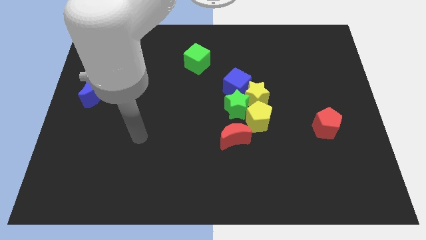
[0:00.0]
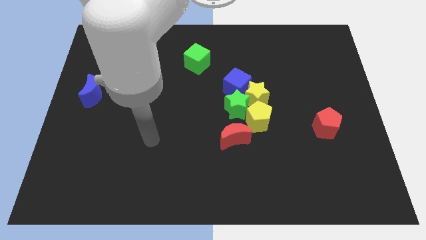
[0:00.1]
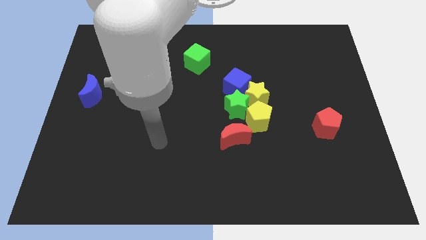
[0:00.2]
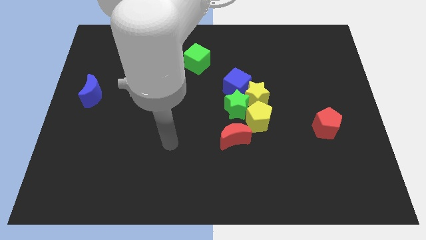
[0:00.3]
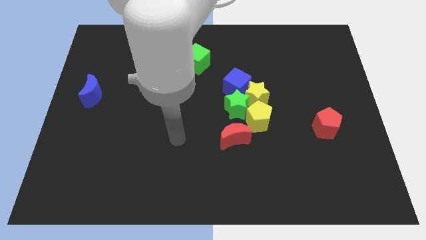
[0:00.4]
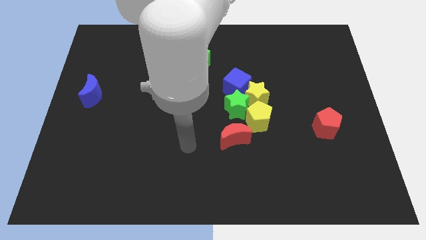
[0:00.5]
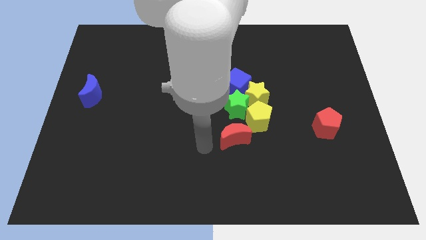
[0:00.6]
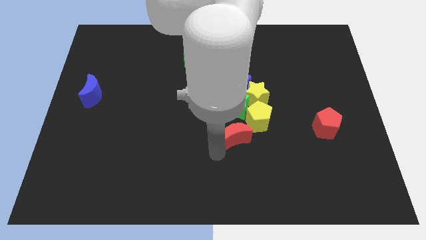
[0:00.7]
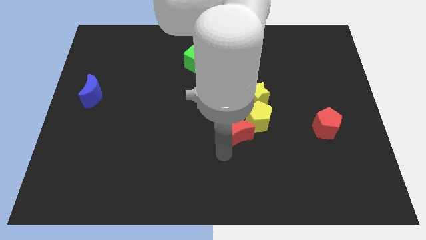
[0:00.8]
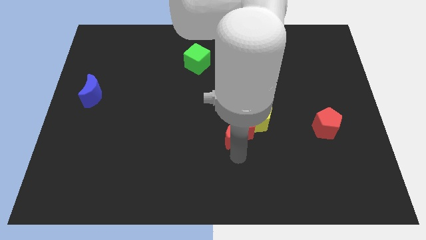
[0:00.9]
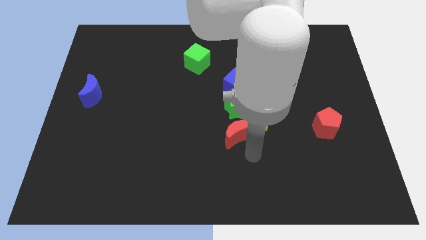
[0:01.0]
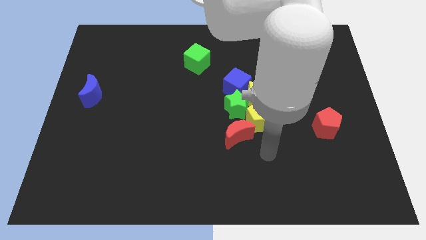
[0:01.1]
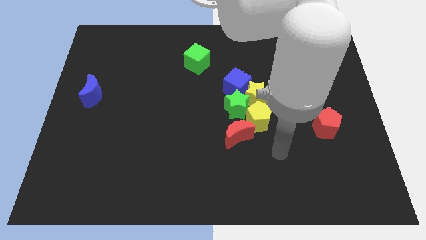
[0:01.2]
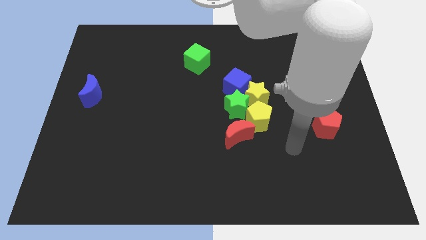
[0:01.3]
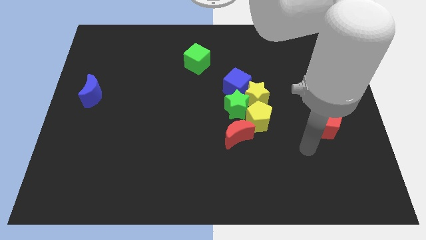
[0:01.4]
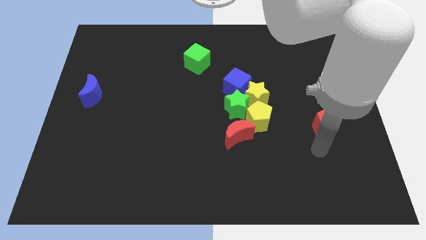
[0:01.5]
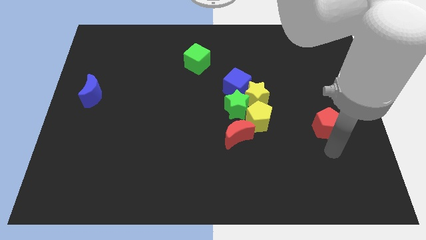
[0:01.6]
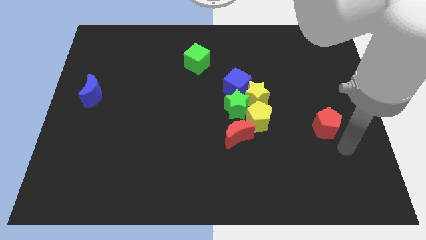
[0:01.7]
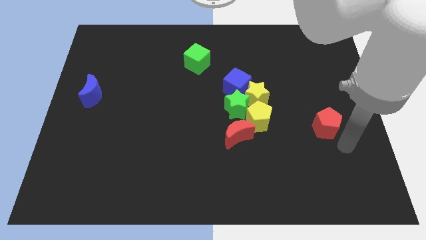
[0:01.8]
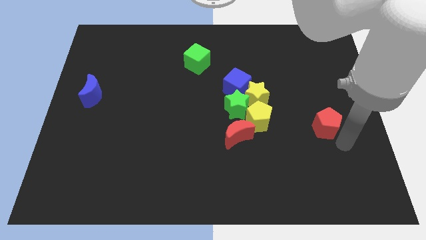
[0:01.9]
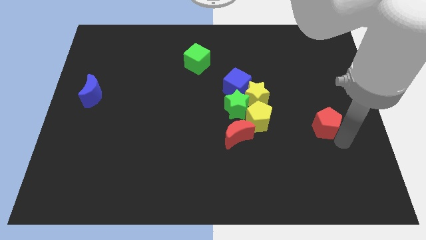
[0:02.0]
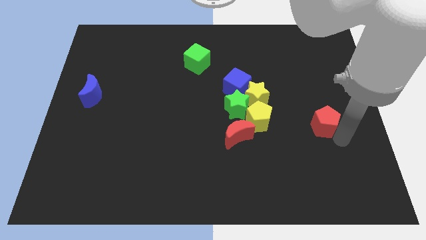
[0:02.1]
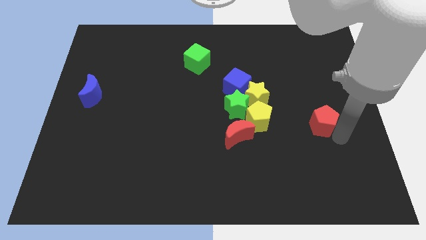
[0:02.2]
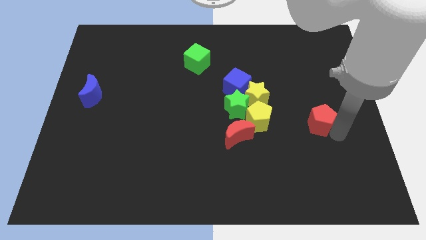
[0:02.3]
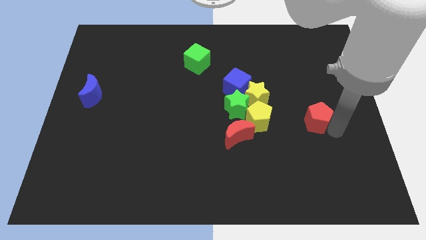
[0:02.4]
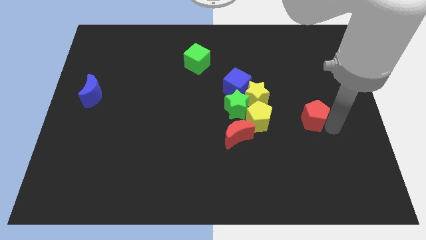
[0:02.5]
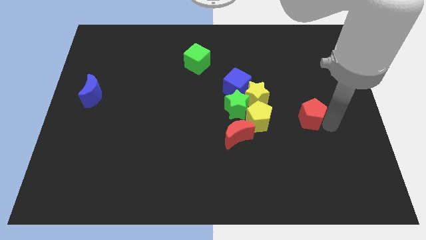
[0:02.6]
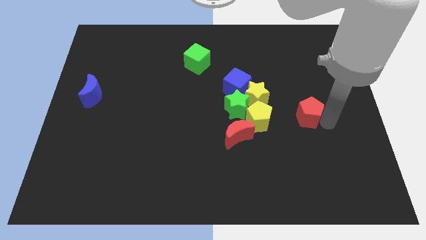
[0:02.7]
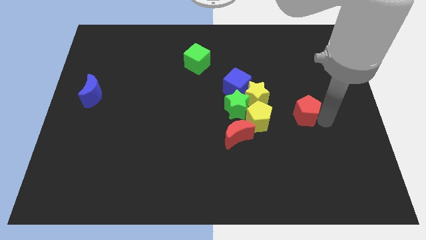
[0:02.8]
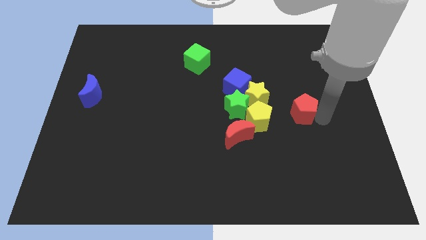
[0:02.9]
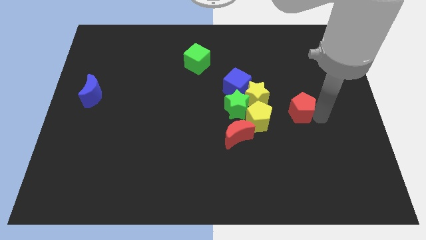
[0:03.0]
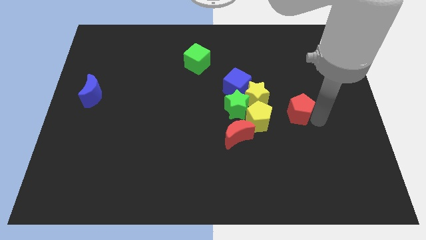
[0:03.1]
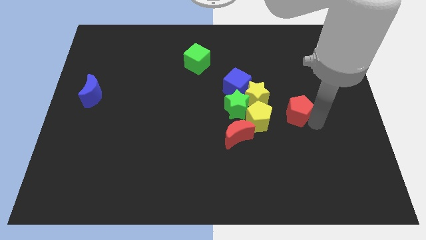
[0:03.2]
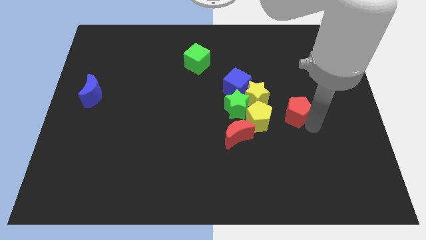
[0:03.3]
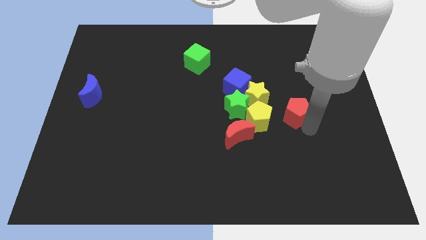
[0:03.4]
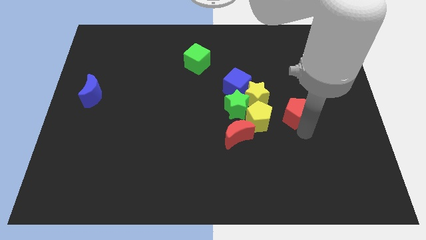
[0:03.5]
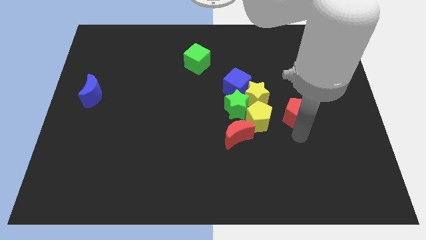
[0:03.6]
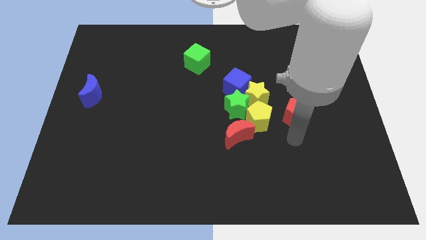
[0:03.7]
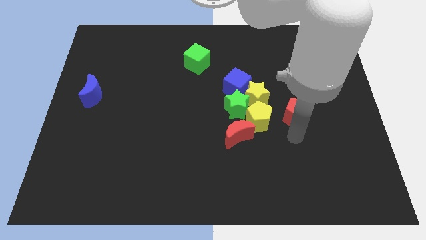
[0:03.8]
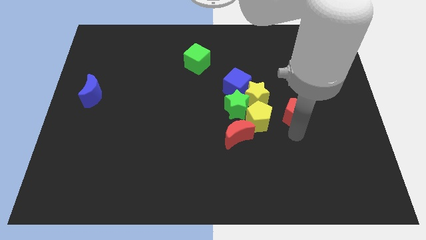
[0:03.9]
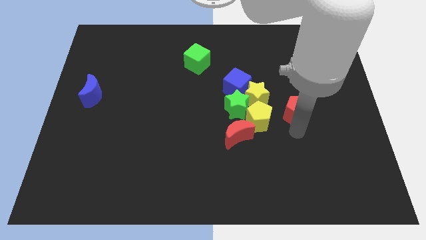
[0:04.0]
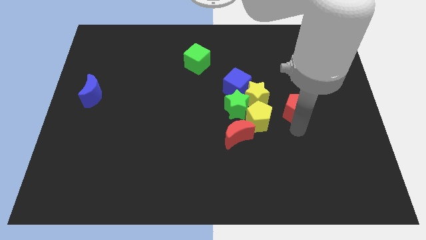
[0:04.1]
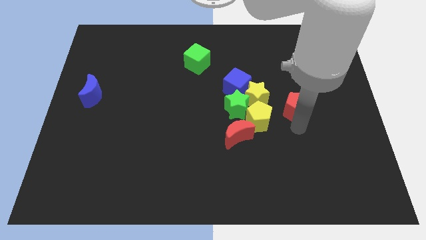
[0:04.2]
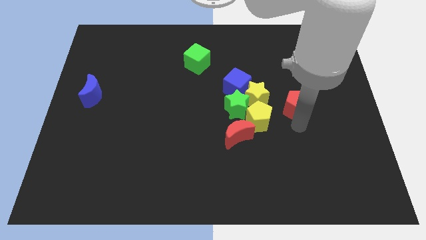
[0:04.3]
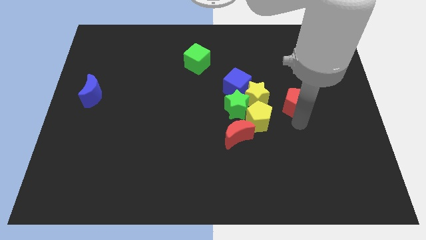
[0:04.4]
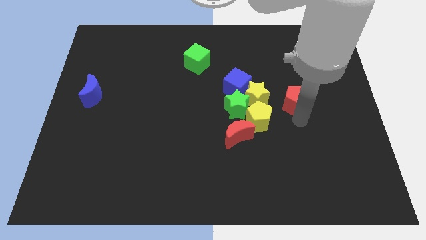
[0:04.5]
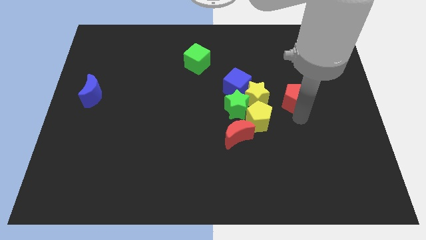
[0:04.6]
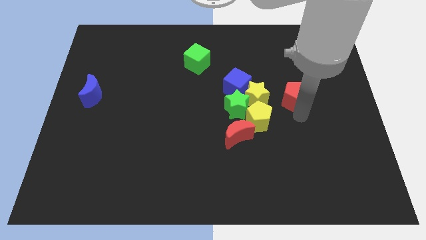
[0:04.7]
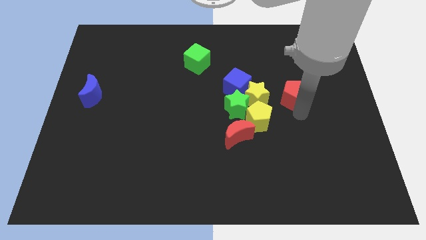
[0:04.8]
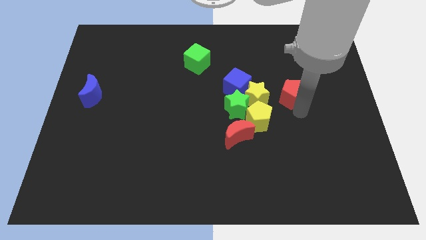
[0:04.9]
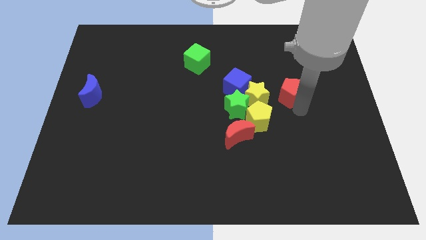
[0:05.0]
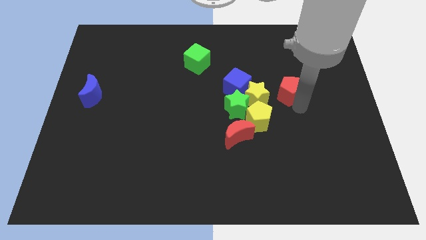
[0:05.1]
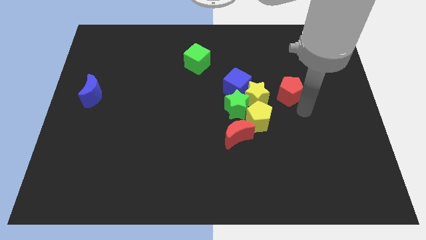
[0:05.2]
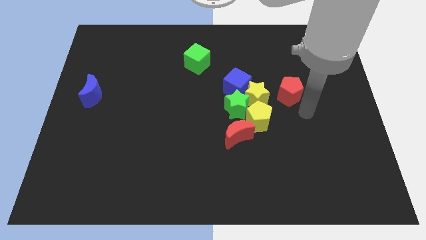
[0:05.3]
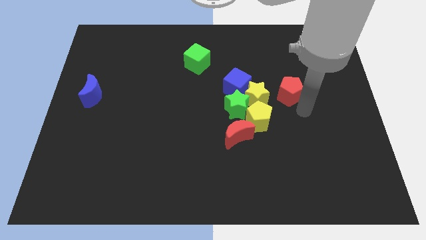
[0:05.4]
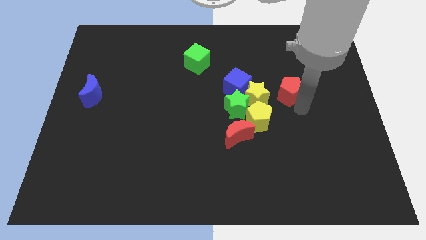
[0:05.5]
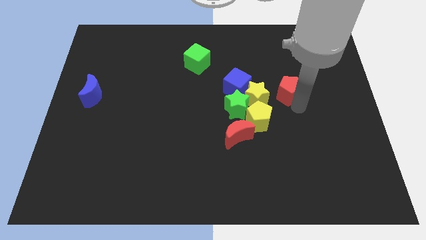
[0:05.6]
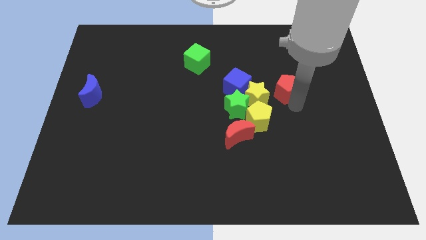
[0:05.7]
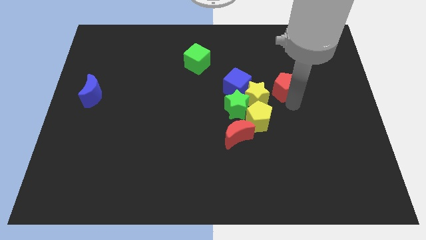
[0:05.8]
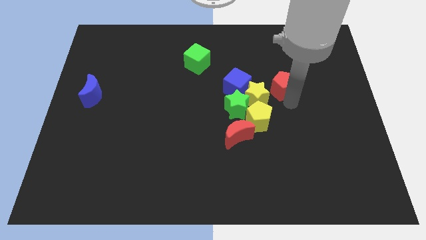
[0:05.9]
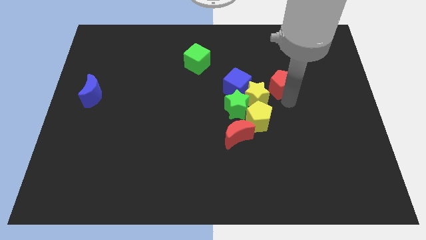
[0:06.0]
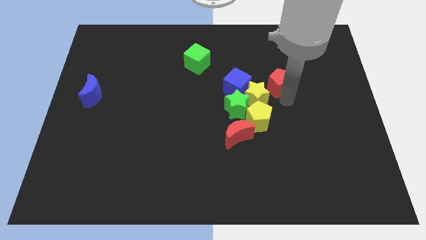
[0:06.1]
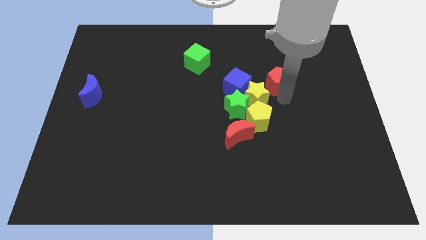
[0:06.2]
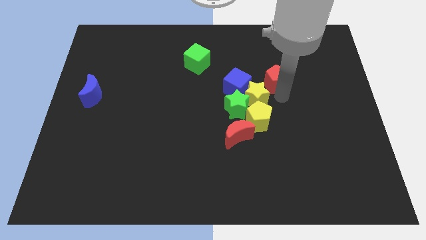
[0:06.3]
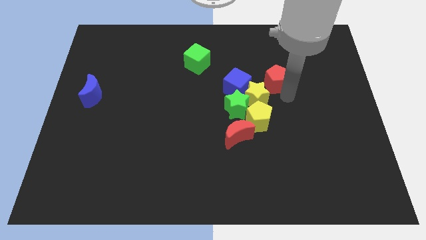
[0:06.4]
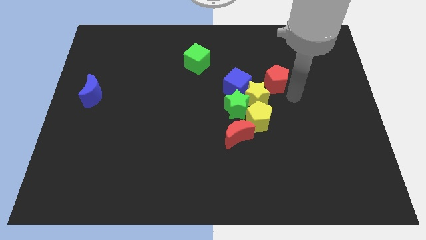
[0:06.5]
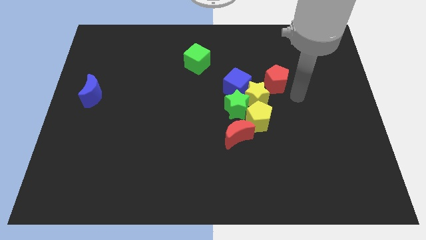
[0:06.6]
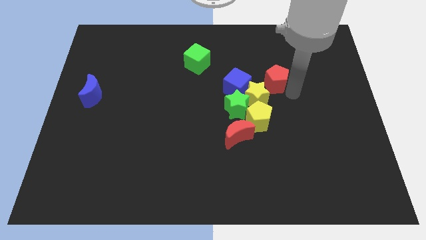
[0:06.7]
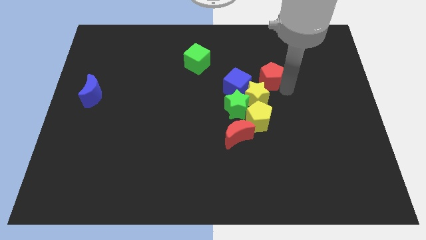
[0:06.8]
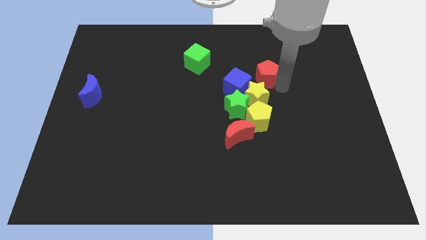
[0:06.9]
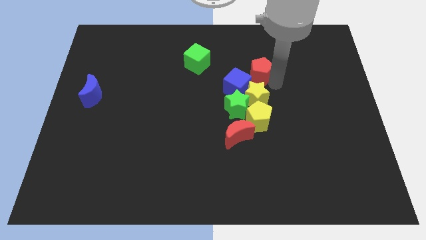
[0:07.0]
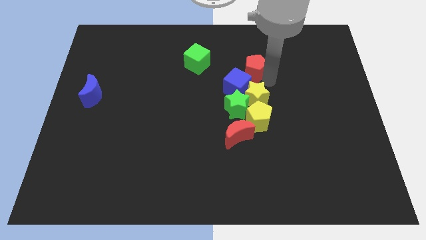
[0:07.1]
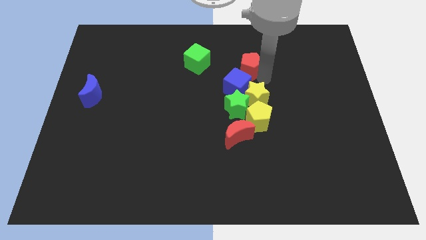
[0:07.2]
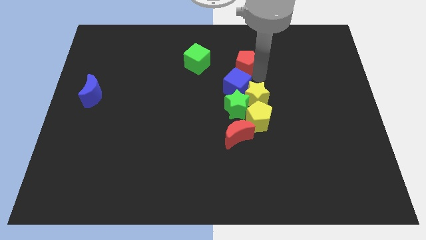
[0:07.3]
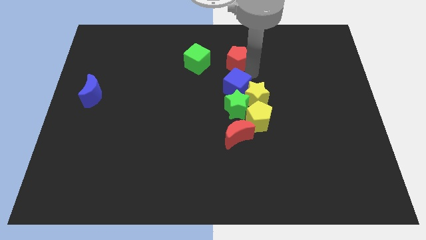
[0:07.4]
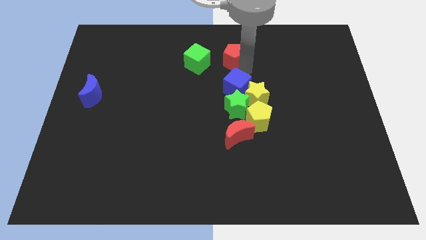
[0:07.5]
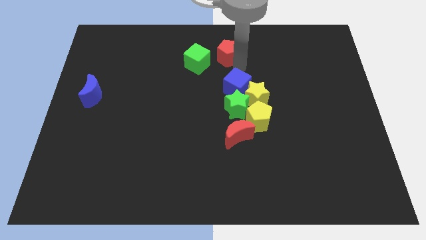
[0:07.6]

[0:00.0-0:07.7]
move the red pentagon to the towards your base
